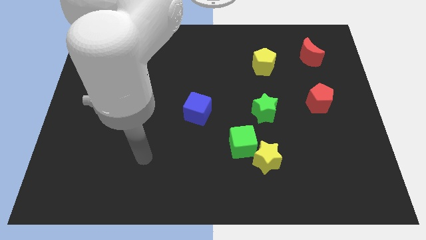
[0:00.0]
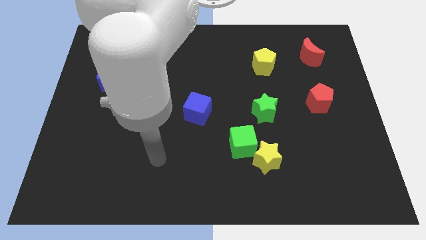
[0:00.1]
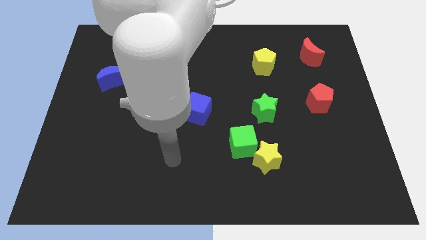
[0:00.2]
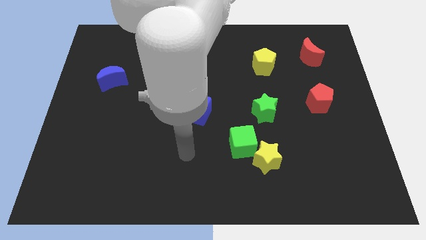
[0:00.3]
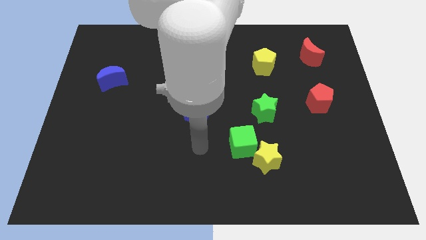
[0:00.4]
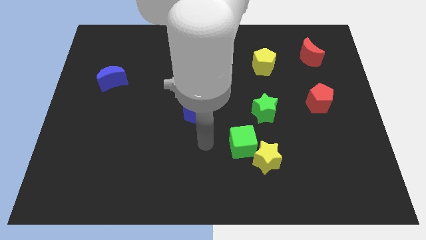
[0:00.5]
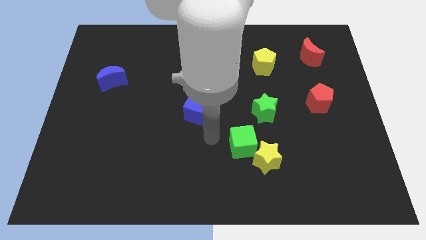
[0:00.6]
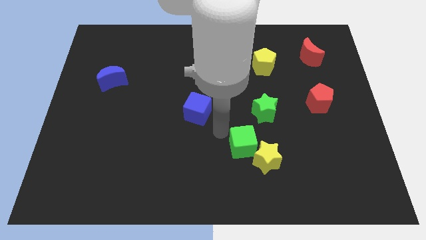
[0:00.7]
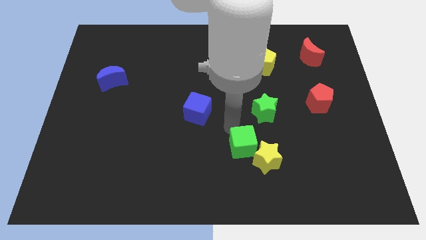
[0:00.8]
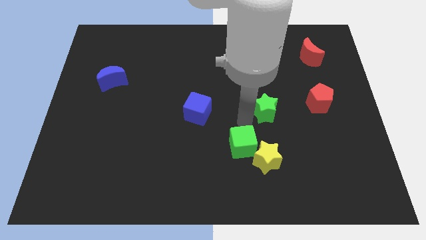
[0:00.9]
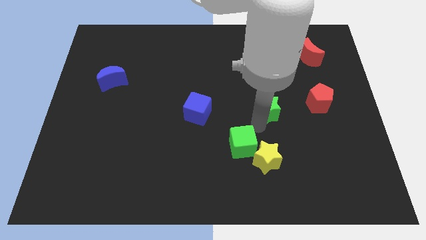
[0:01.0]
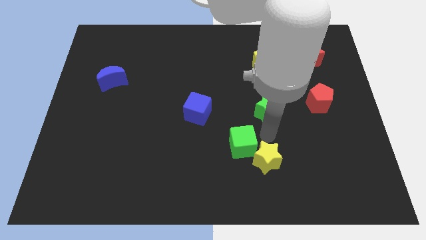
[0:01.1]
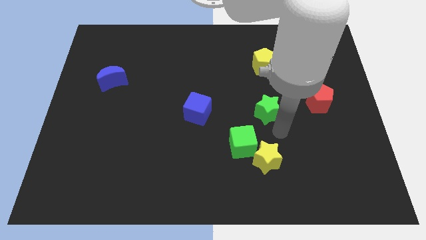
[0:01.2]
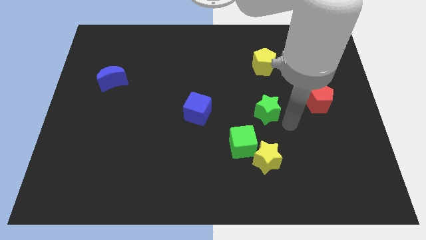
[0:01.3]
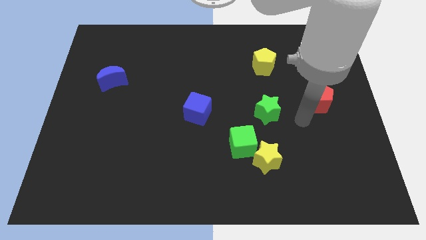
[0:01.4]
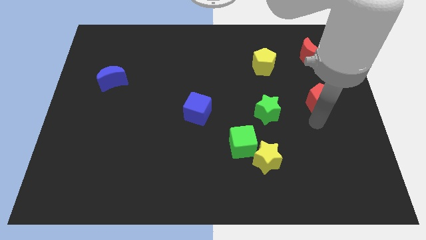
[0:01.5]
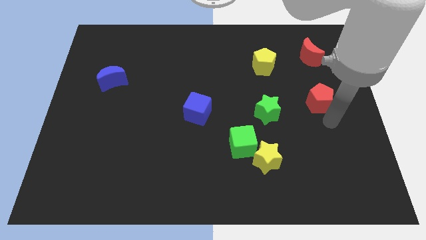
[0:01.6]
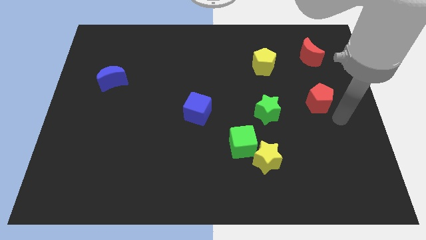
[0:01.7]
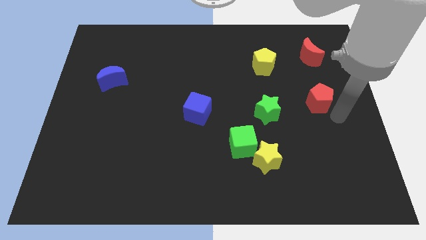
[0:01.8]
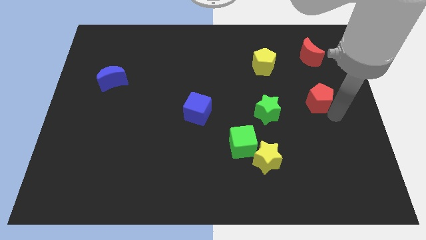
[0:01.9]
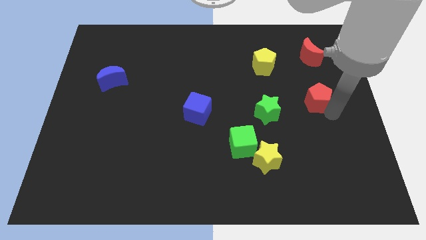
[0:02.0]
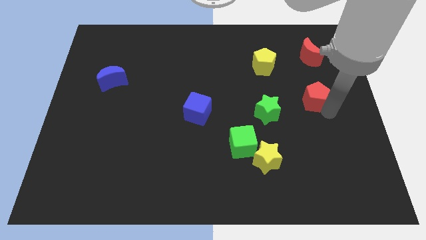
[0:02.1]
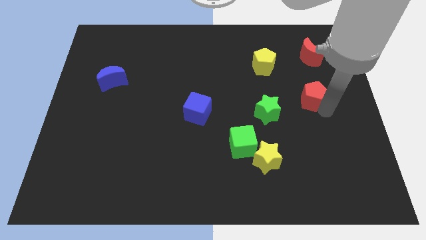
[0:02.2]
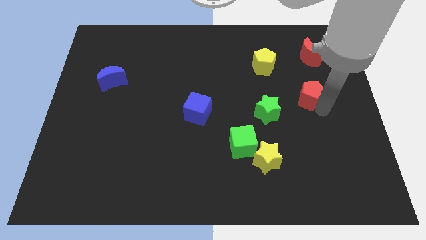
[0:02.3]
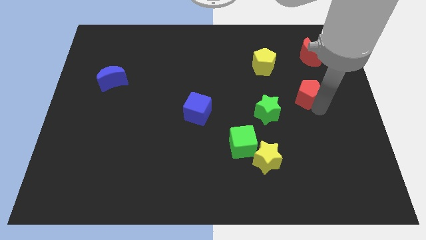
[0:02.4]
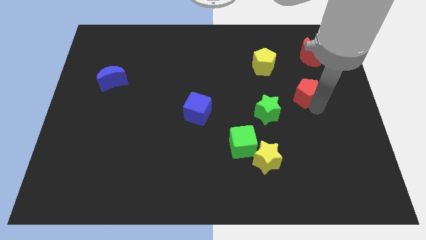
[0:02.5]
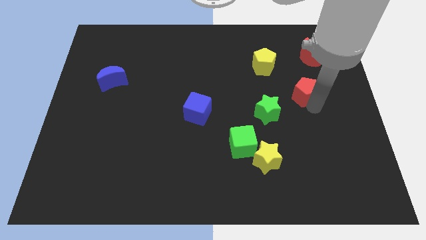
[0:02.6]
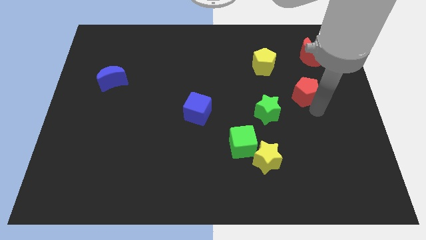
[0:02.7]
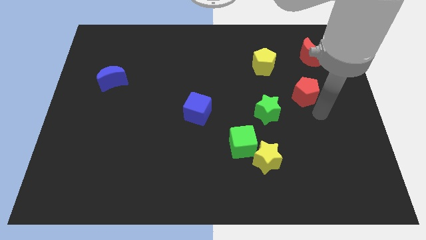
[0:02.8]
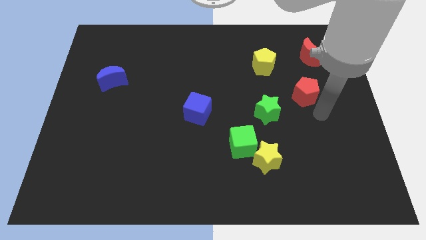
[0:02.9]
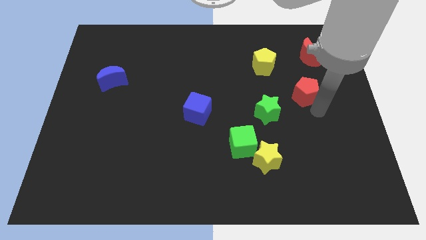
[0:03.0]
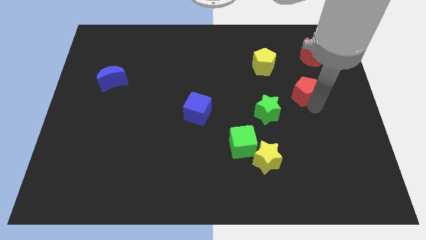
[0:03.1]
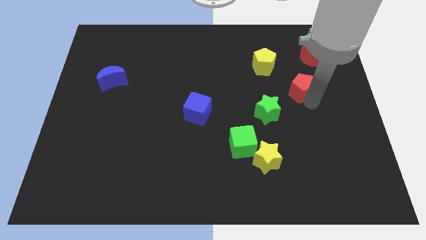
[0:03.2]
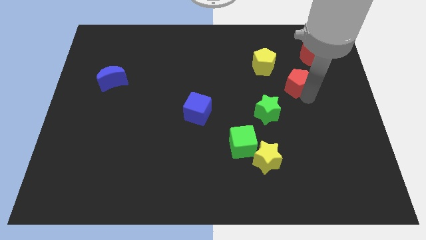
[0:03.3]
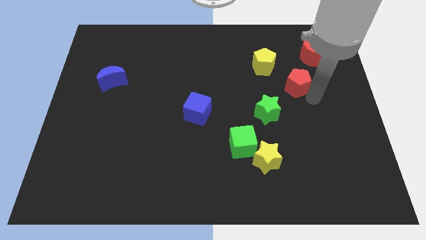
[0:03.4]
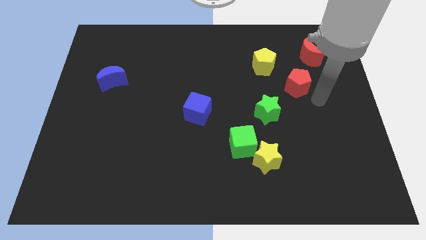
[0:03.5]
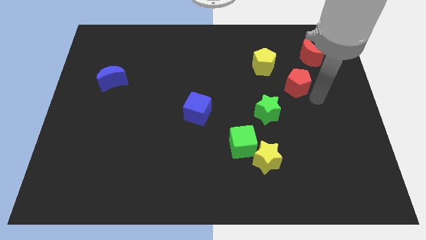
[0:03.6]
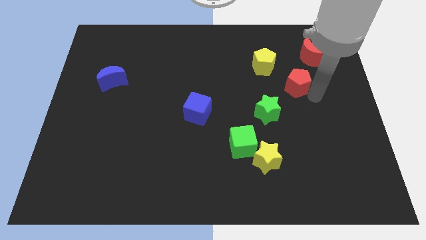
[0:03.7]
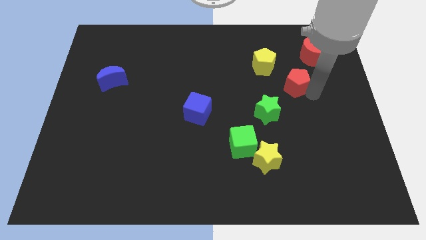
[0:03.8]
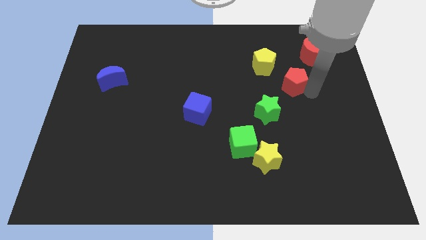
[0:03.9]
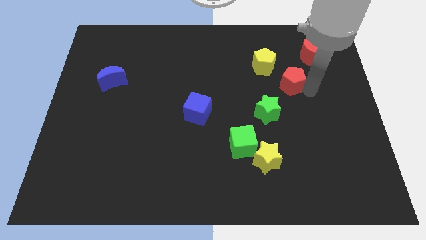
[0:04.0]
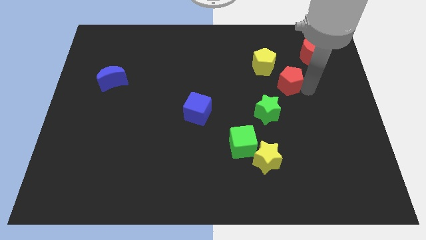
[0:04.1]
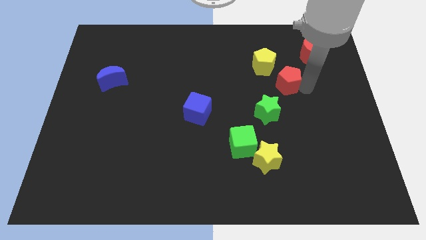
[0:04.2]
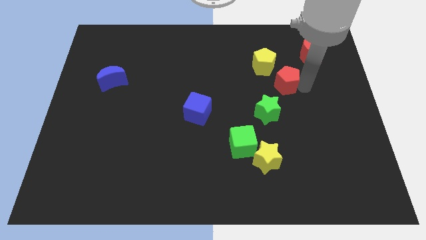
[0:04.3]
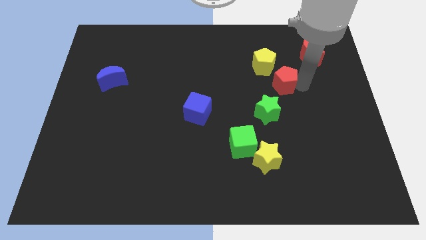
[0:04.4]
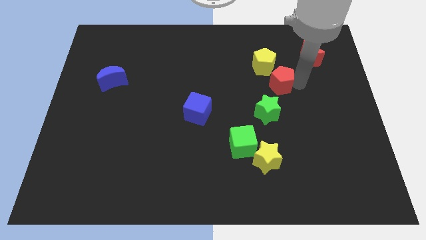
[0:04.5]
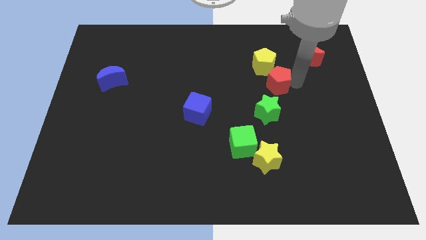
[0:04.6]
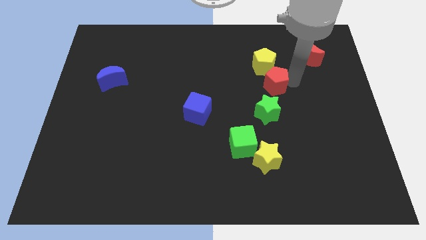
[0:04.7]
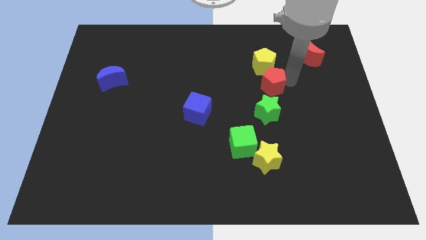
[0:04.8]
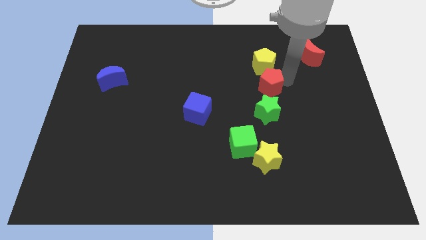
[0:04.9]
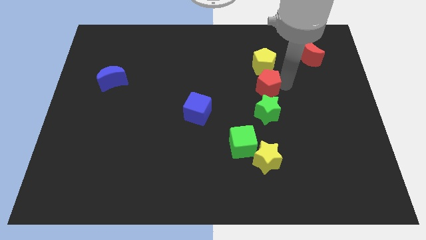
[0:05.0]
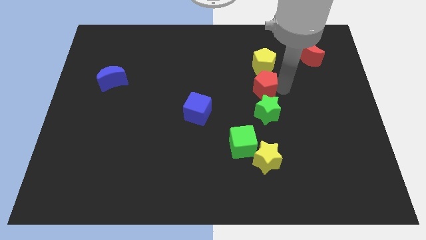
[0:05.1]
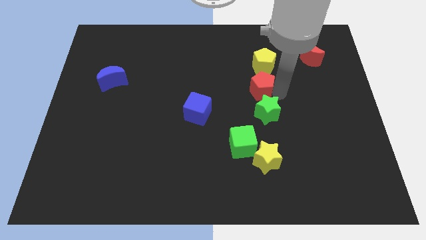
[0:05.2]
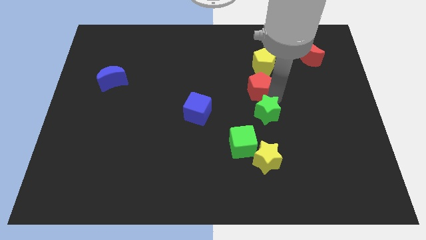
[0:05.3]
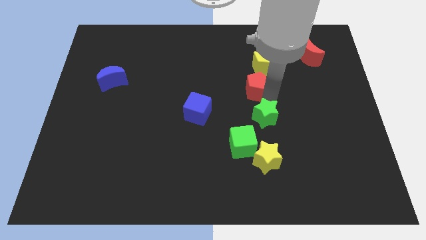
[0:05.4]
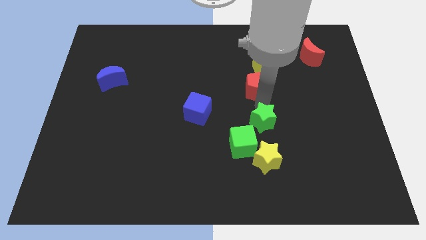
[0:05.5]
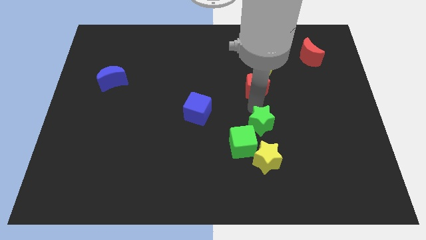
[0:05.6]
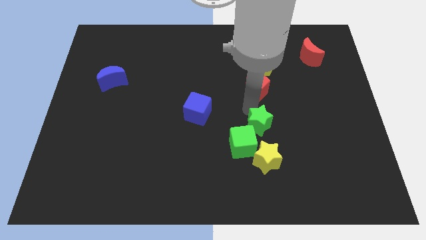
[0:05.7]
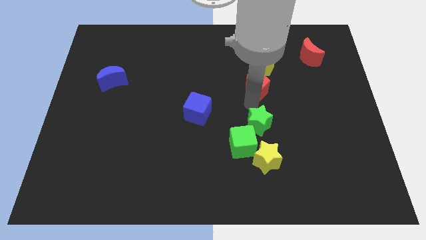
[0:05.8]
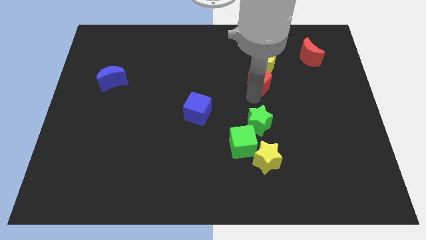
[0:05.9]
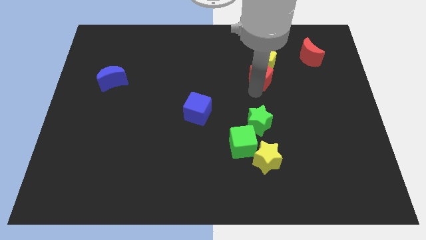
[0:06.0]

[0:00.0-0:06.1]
put the red pentagon towards the yellow pentagon

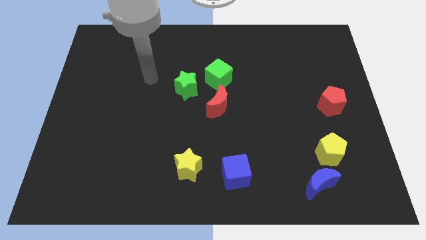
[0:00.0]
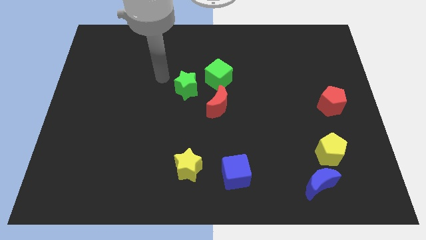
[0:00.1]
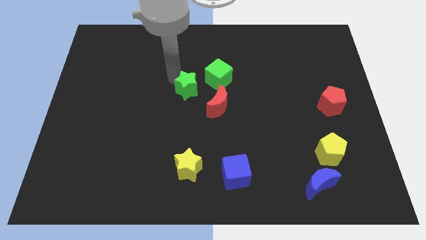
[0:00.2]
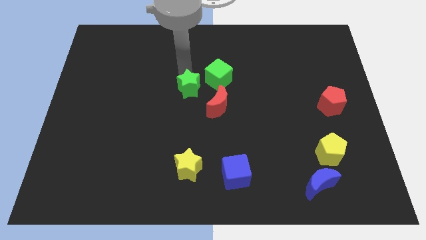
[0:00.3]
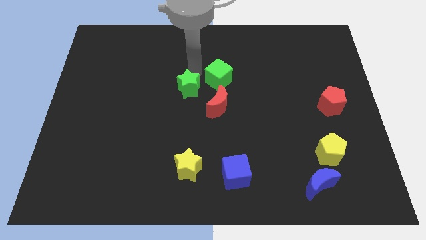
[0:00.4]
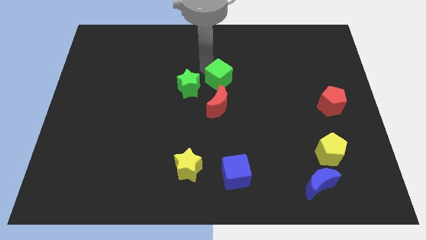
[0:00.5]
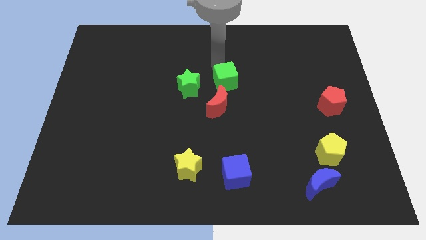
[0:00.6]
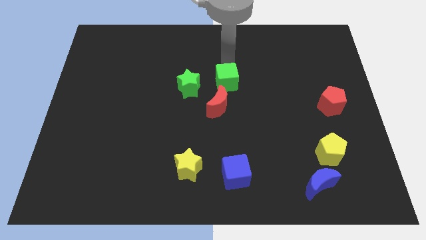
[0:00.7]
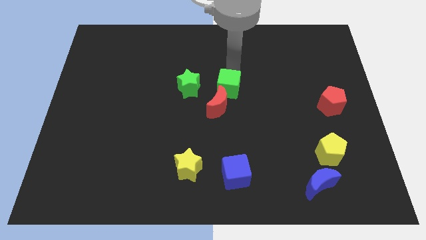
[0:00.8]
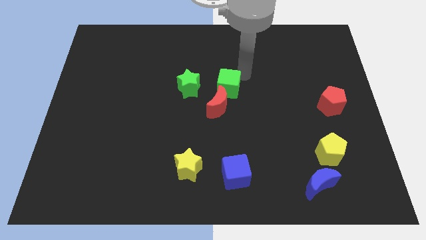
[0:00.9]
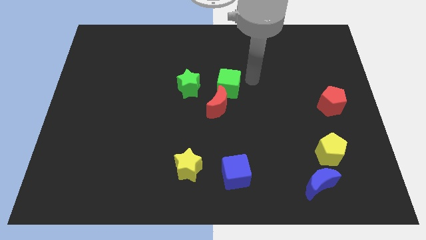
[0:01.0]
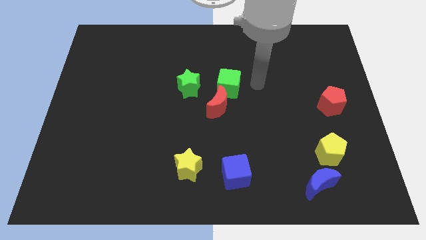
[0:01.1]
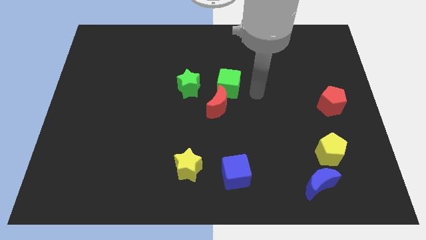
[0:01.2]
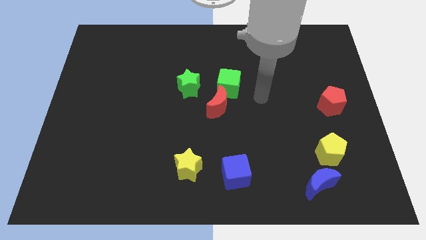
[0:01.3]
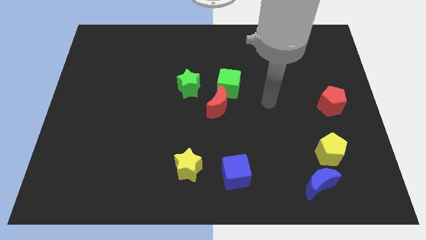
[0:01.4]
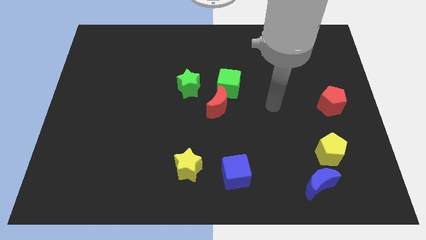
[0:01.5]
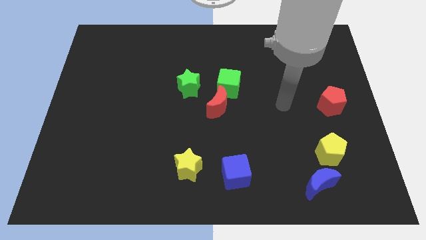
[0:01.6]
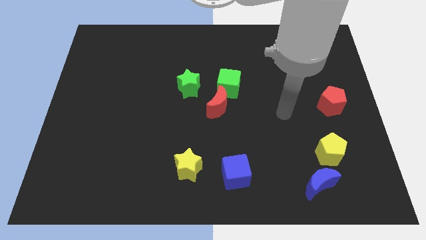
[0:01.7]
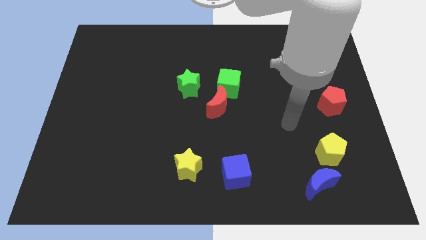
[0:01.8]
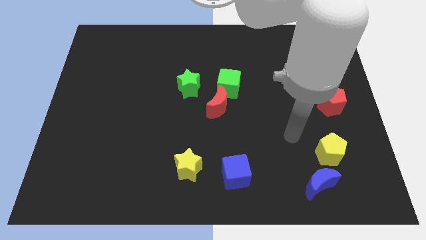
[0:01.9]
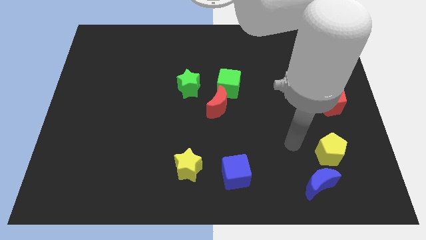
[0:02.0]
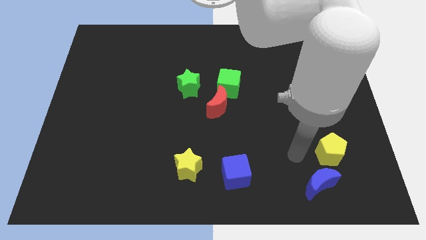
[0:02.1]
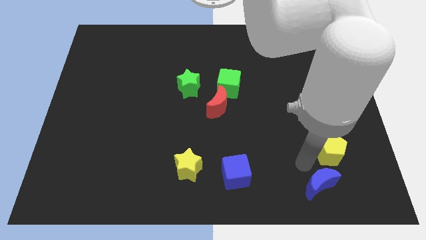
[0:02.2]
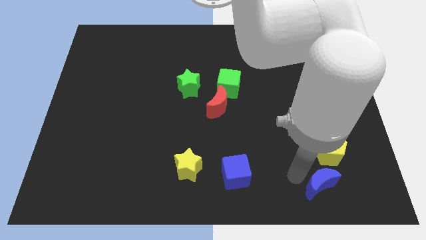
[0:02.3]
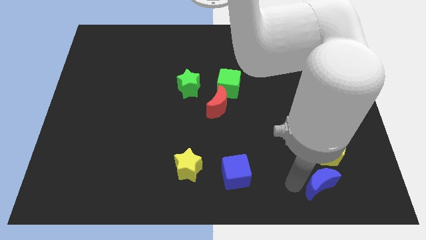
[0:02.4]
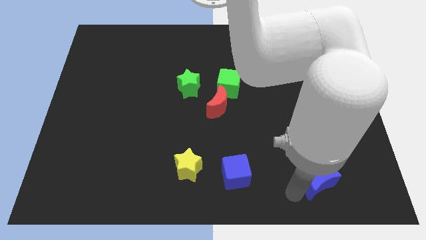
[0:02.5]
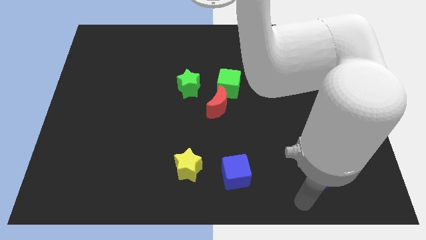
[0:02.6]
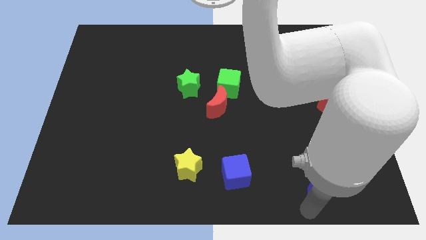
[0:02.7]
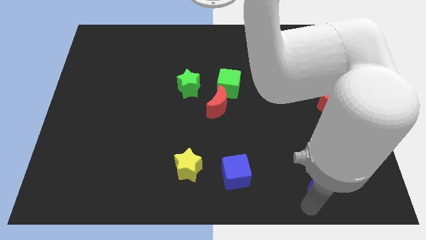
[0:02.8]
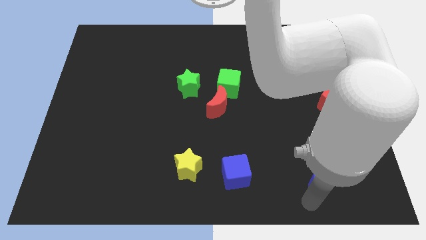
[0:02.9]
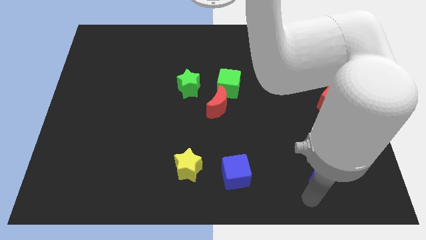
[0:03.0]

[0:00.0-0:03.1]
move the blue moon next to the yellow pentagon
